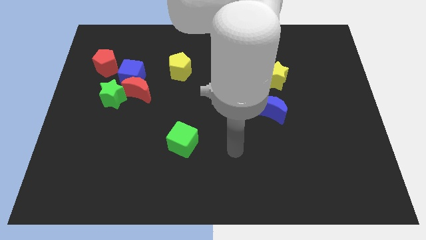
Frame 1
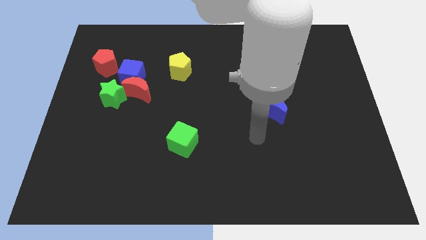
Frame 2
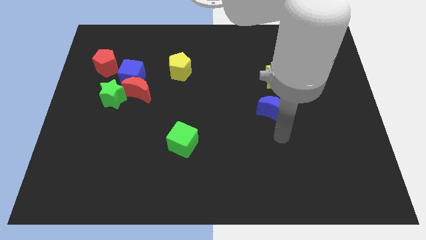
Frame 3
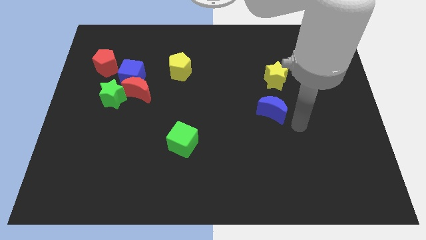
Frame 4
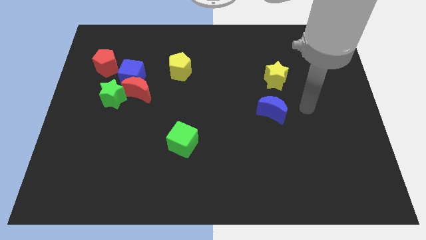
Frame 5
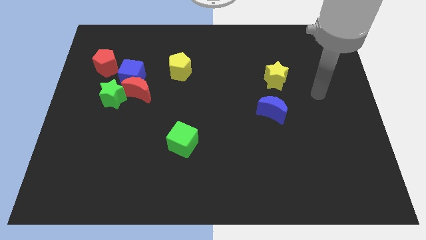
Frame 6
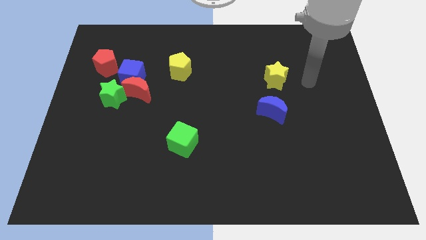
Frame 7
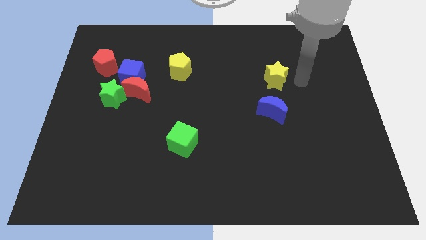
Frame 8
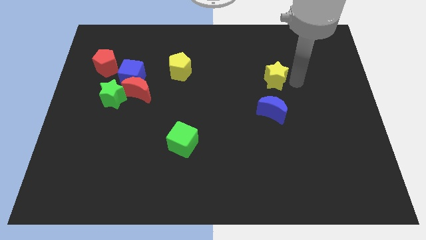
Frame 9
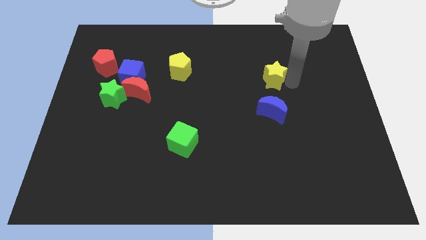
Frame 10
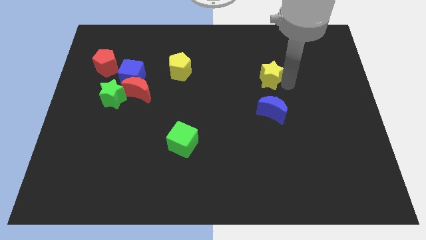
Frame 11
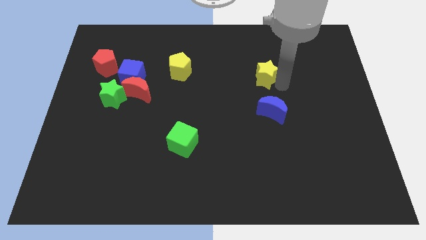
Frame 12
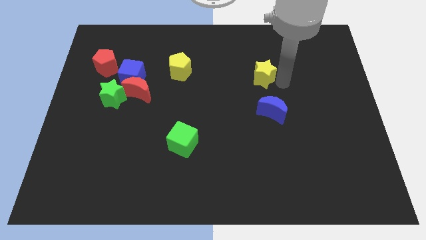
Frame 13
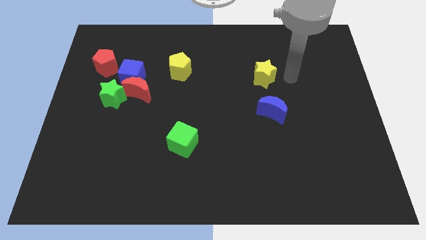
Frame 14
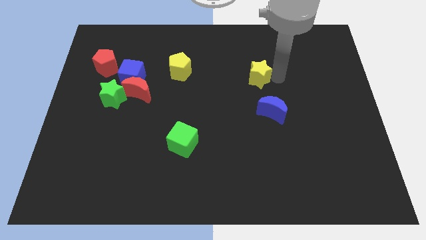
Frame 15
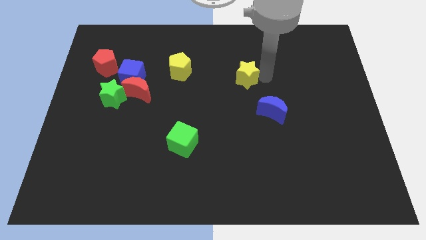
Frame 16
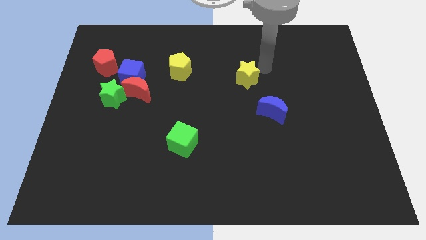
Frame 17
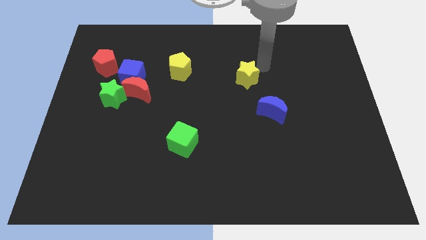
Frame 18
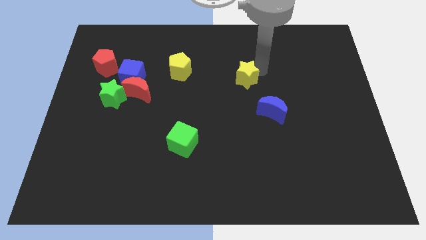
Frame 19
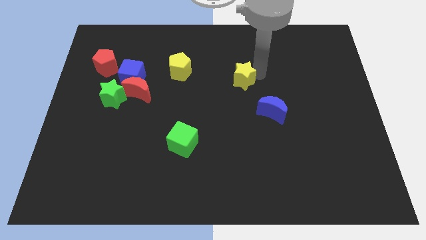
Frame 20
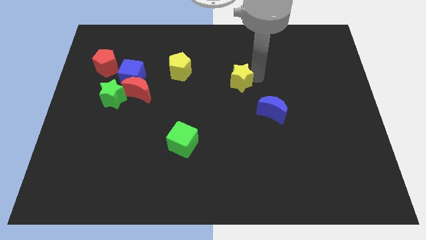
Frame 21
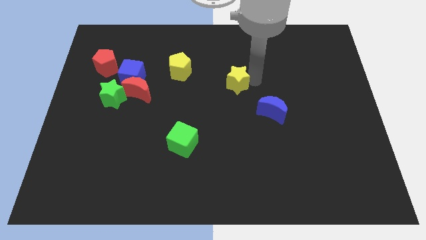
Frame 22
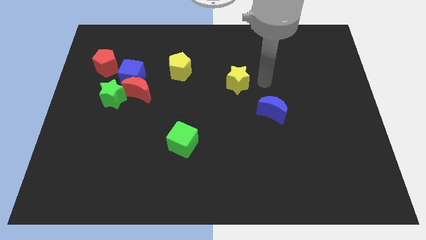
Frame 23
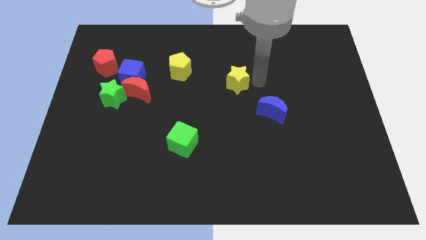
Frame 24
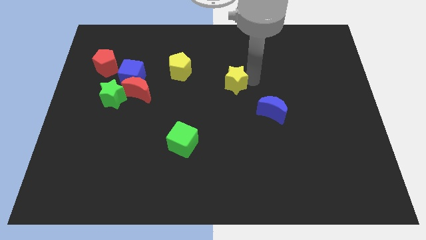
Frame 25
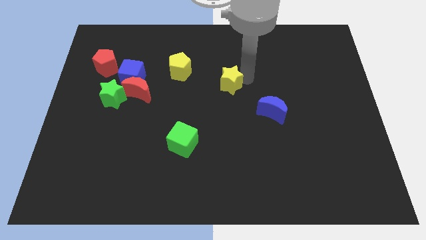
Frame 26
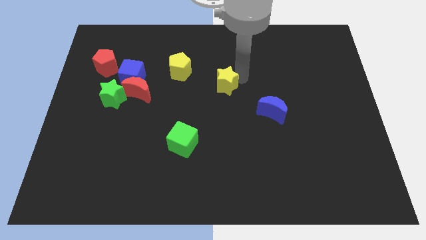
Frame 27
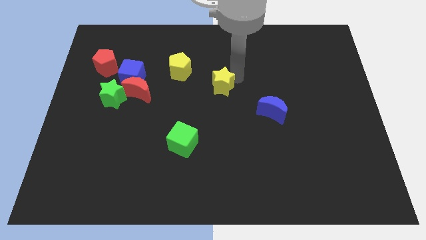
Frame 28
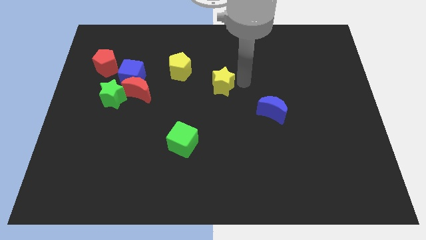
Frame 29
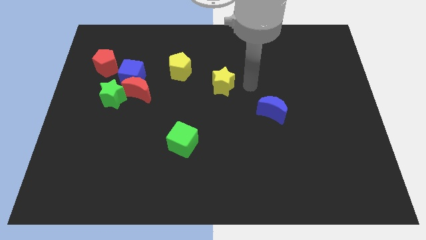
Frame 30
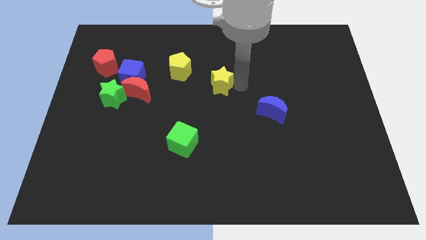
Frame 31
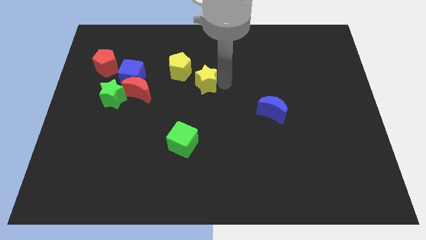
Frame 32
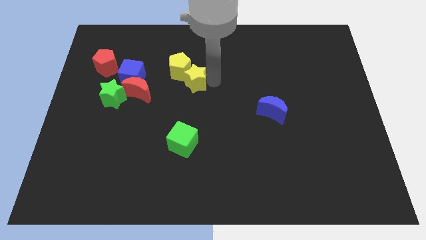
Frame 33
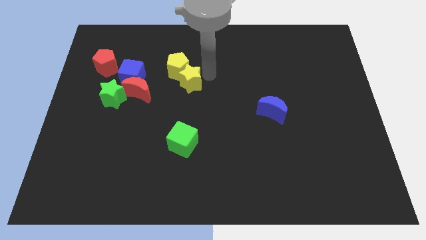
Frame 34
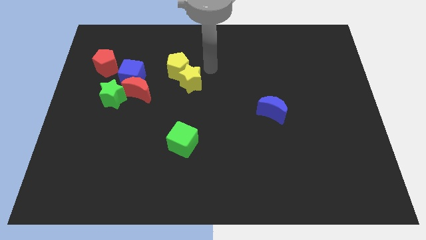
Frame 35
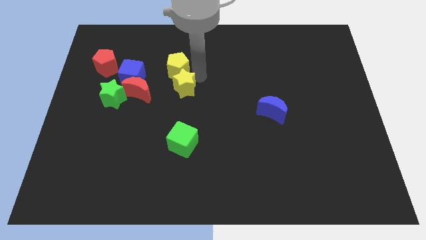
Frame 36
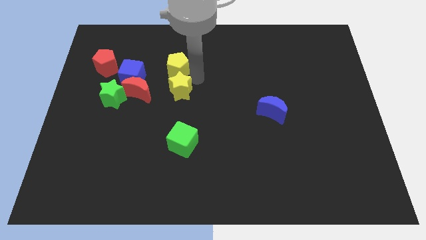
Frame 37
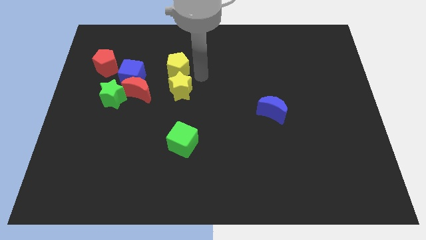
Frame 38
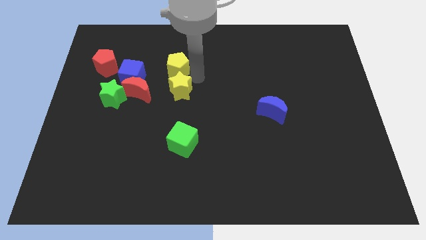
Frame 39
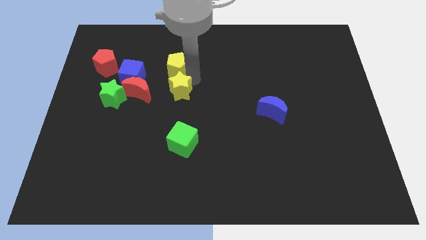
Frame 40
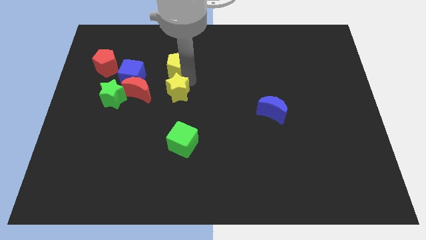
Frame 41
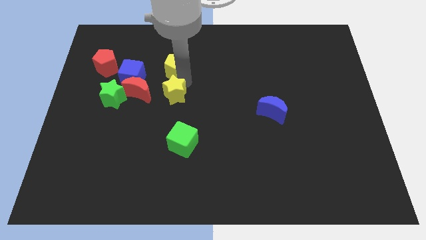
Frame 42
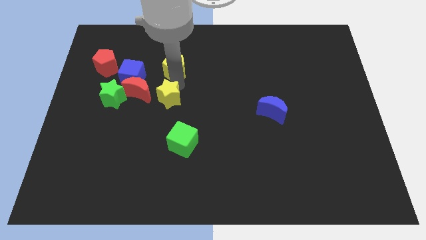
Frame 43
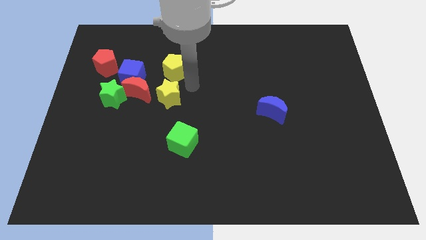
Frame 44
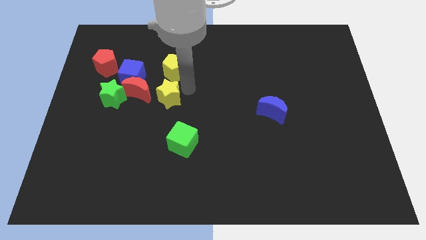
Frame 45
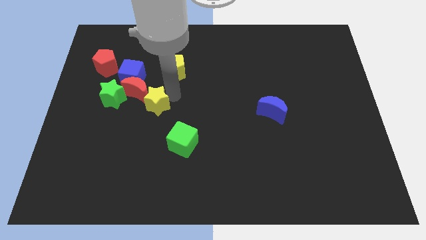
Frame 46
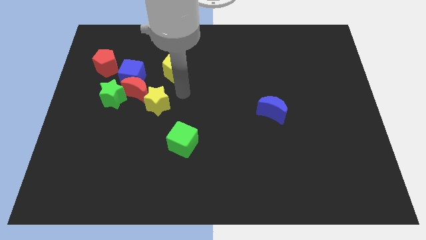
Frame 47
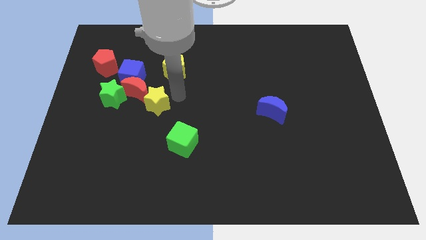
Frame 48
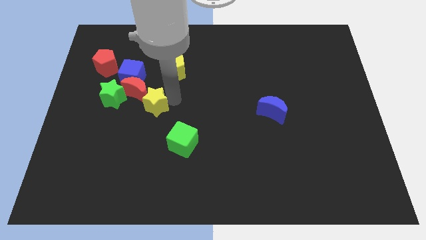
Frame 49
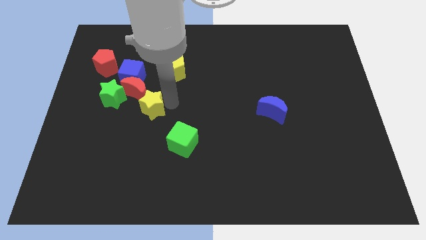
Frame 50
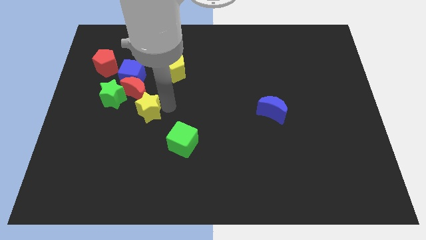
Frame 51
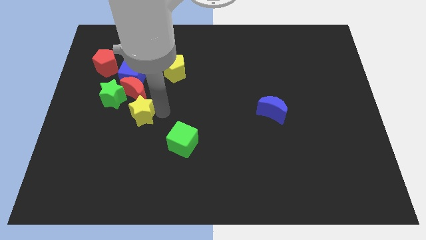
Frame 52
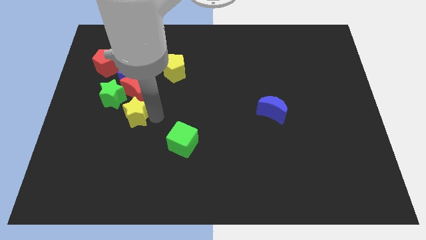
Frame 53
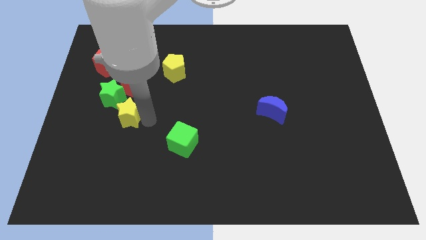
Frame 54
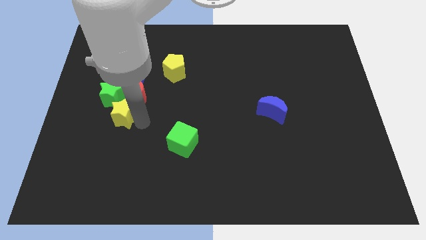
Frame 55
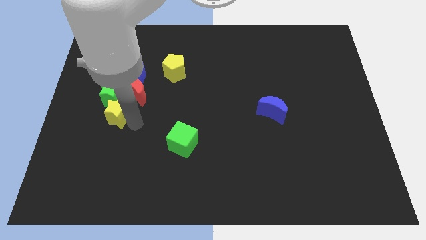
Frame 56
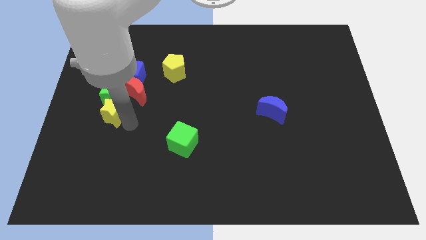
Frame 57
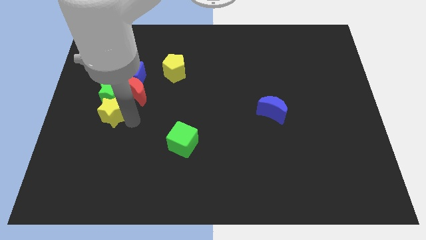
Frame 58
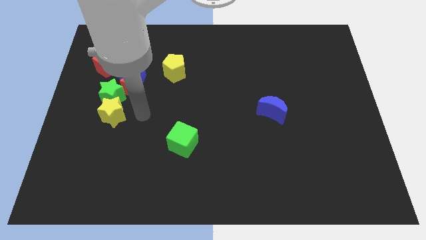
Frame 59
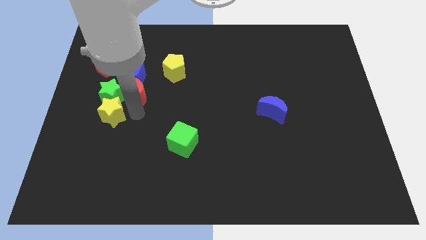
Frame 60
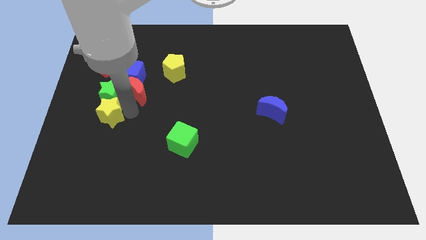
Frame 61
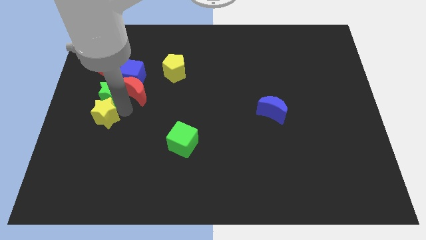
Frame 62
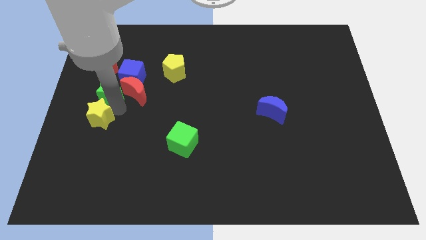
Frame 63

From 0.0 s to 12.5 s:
move the yellow star to the left side of the board
